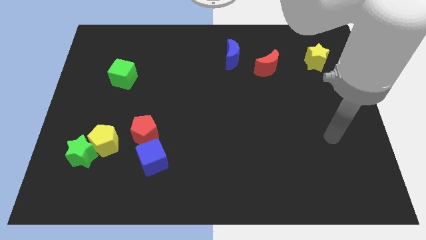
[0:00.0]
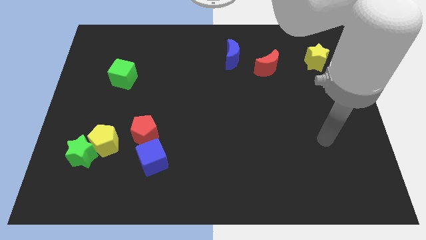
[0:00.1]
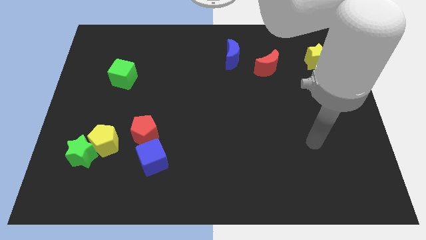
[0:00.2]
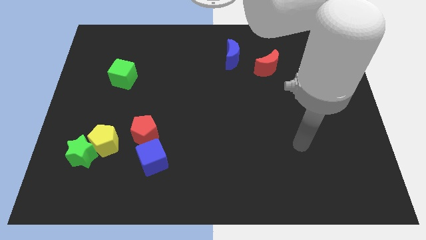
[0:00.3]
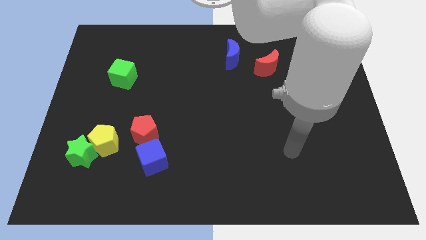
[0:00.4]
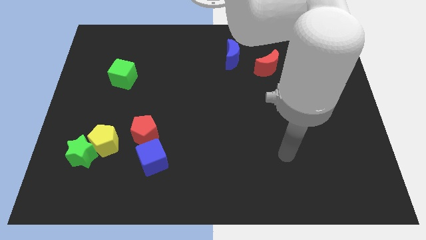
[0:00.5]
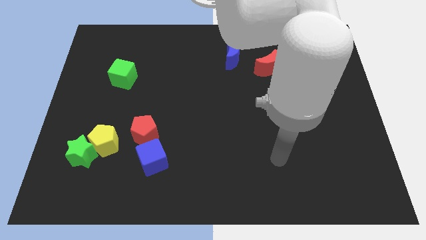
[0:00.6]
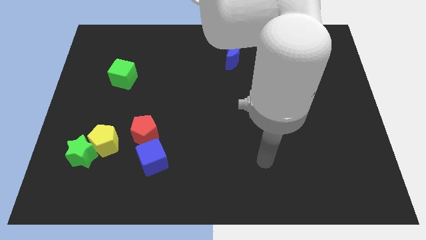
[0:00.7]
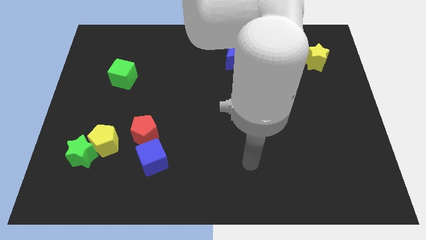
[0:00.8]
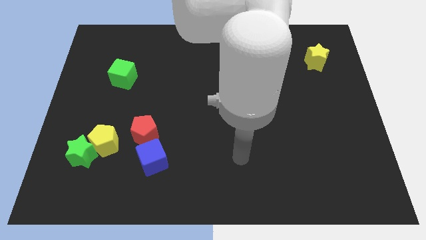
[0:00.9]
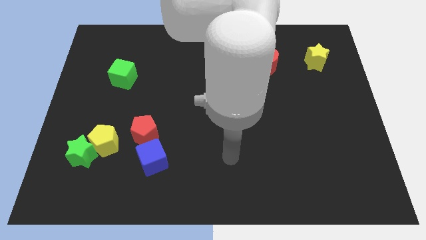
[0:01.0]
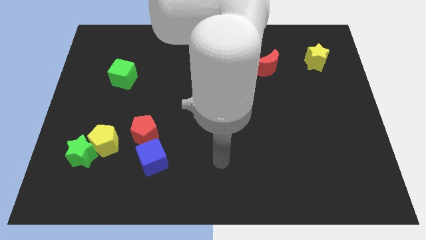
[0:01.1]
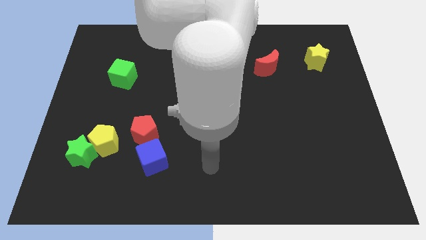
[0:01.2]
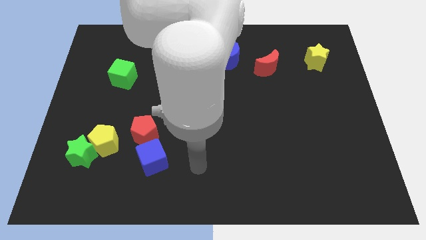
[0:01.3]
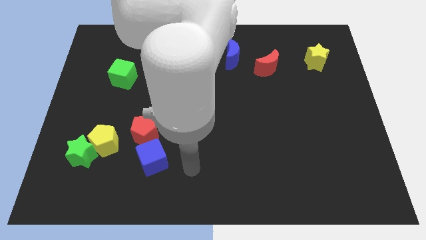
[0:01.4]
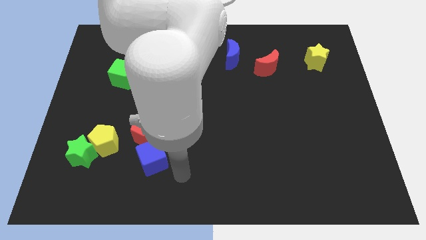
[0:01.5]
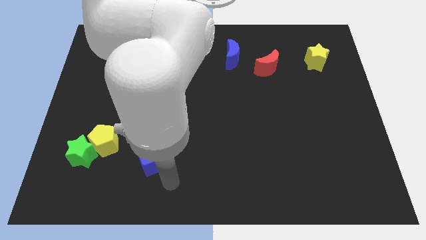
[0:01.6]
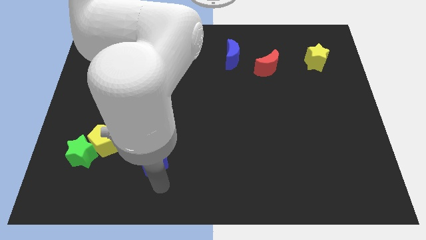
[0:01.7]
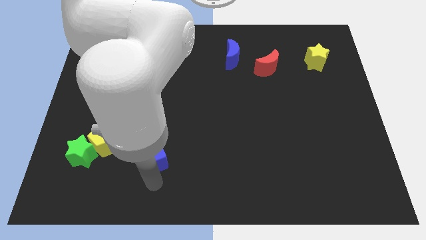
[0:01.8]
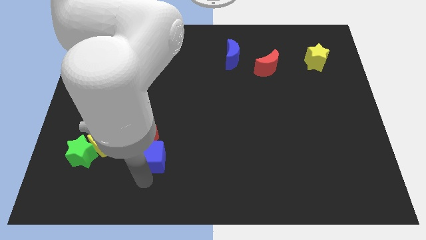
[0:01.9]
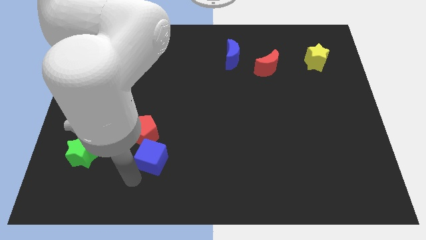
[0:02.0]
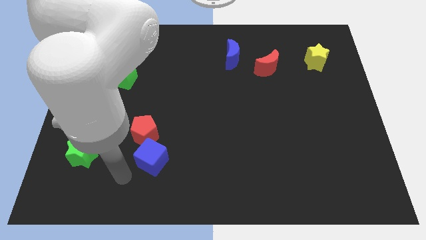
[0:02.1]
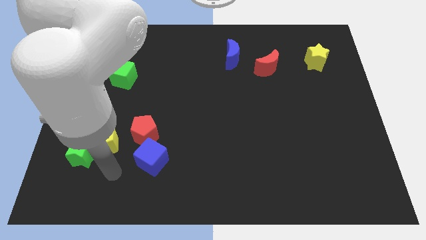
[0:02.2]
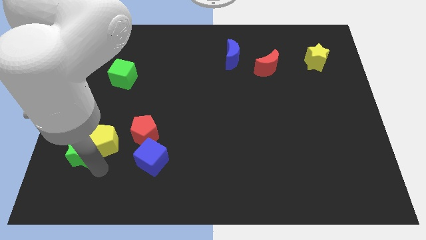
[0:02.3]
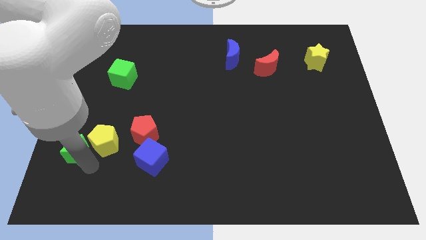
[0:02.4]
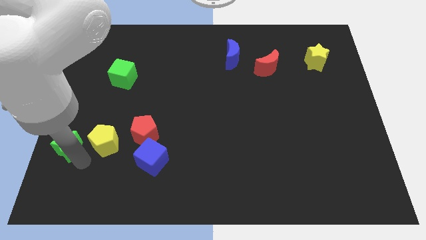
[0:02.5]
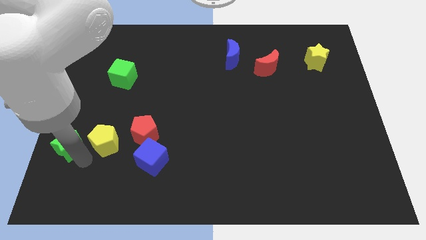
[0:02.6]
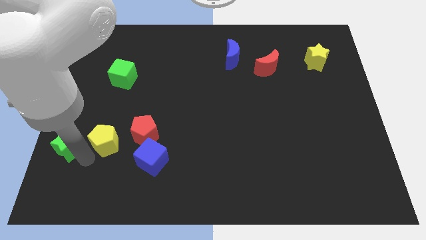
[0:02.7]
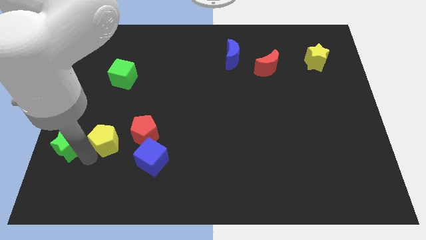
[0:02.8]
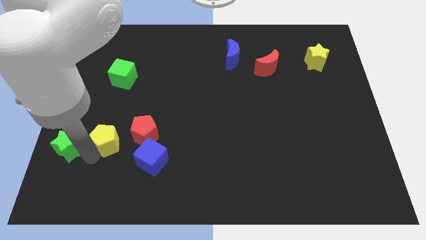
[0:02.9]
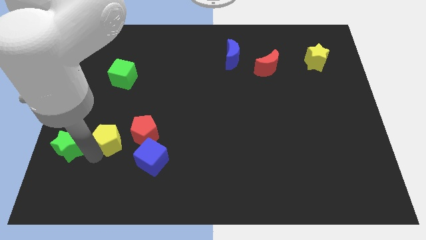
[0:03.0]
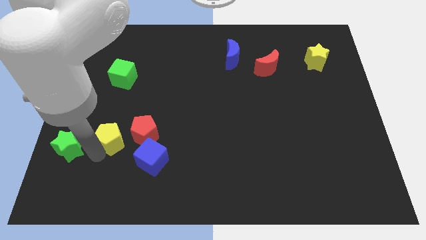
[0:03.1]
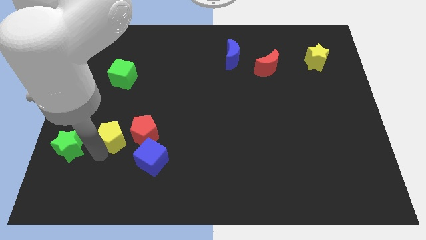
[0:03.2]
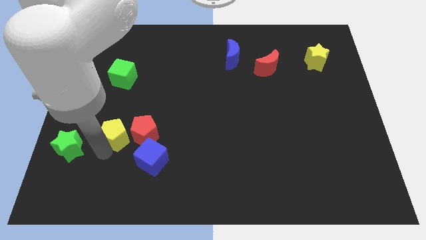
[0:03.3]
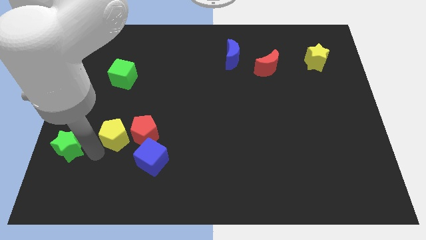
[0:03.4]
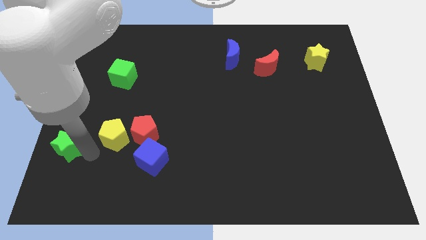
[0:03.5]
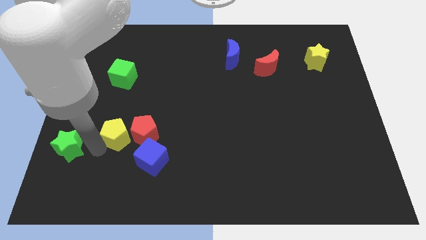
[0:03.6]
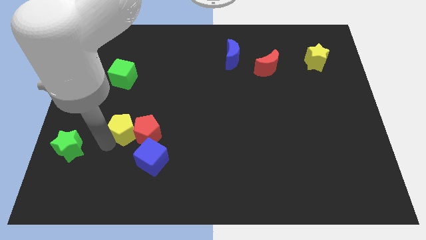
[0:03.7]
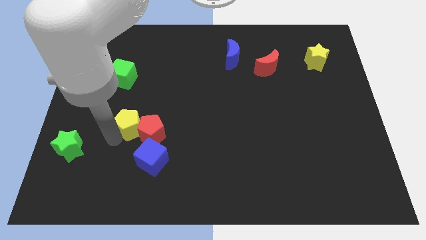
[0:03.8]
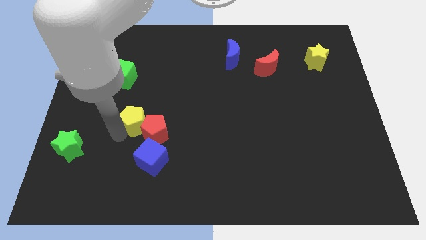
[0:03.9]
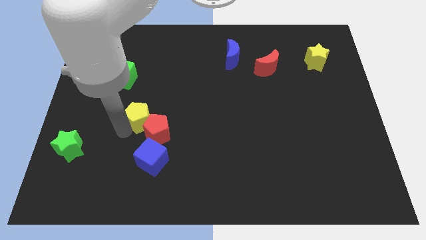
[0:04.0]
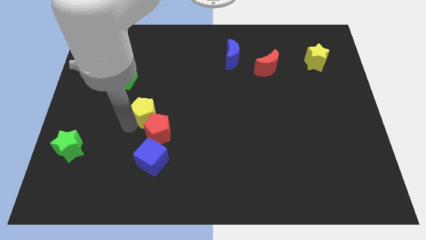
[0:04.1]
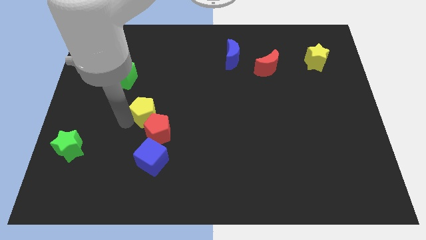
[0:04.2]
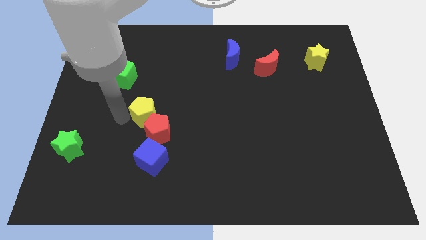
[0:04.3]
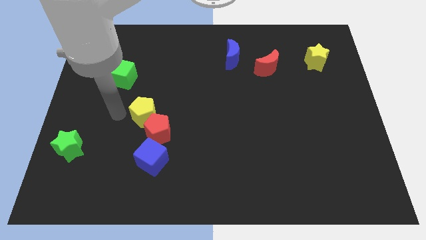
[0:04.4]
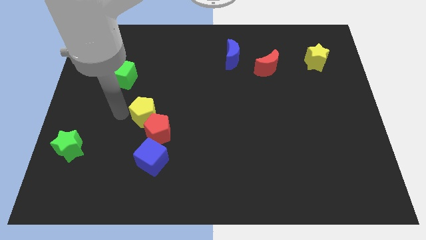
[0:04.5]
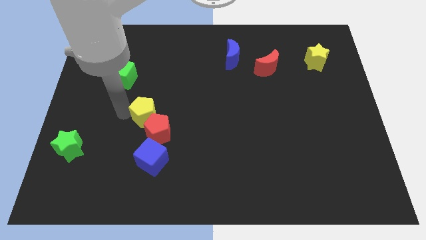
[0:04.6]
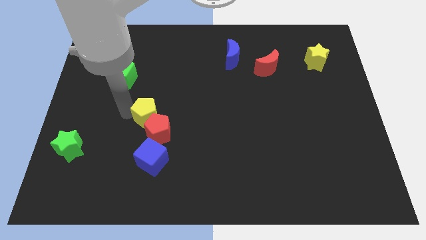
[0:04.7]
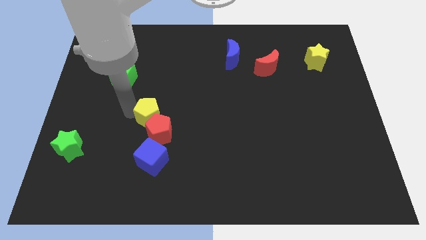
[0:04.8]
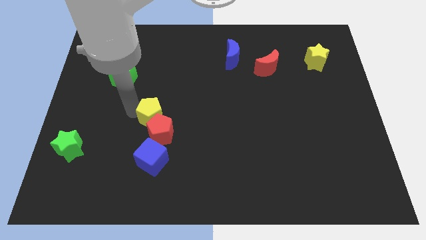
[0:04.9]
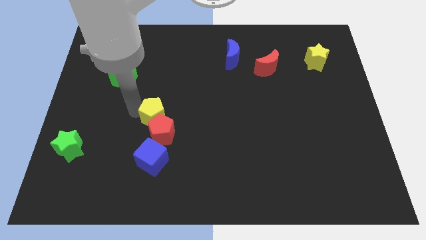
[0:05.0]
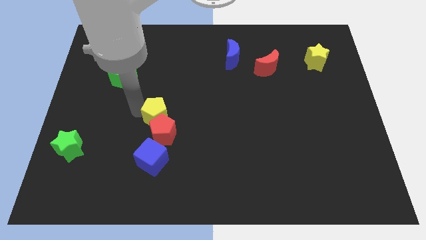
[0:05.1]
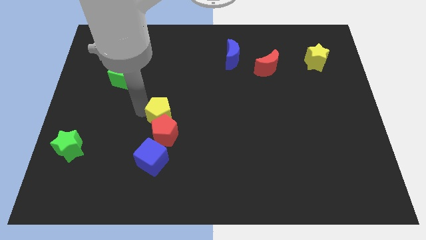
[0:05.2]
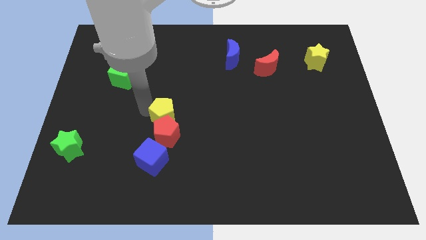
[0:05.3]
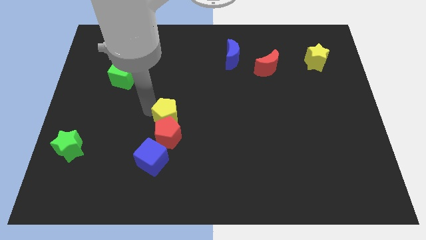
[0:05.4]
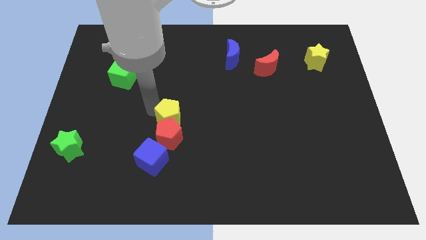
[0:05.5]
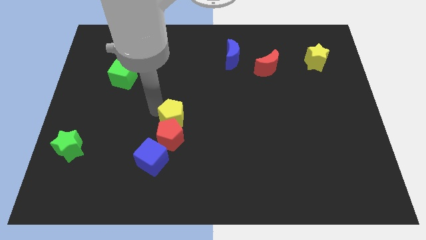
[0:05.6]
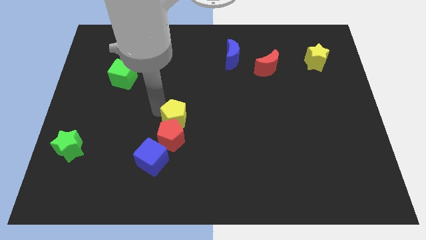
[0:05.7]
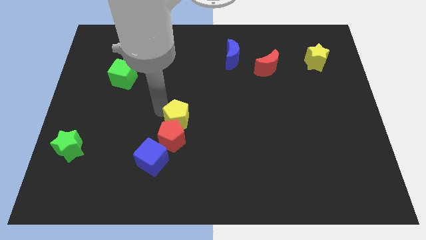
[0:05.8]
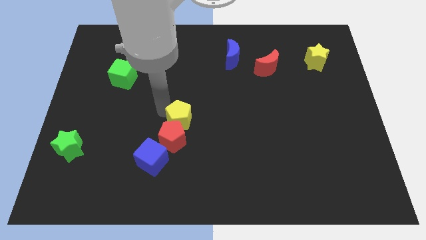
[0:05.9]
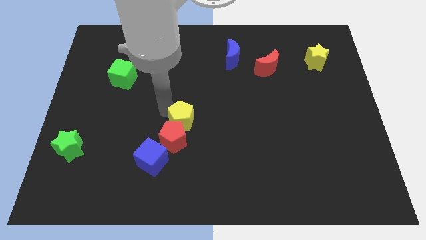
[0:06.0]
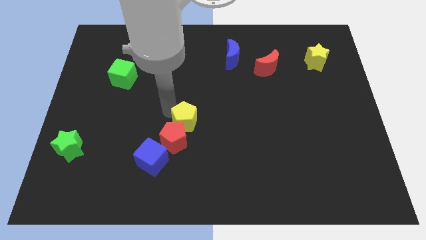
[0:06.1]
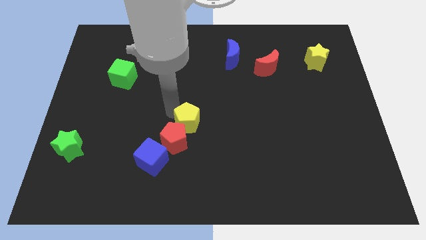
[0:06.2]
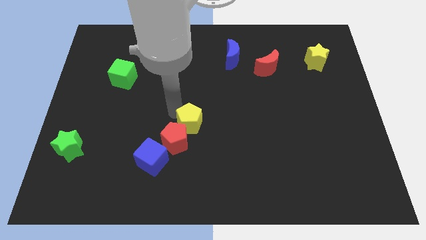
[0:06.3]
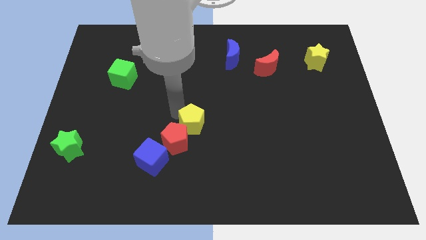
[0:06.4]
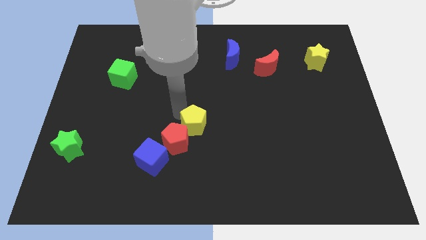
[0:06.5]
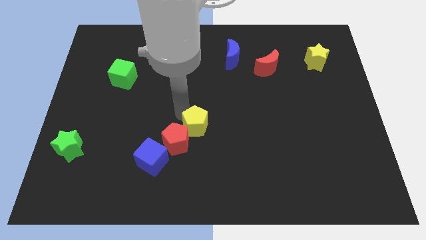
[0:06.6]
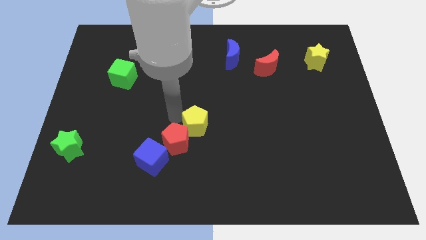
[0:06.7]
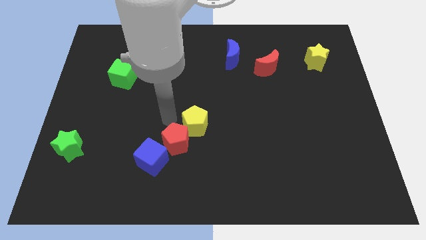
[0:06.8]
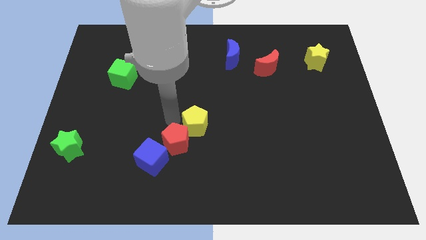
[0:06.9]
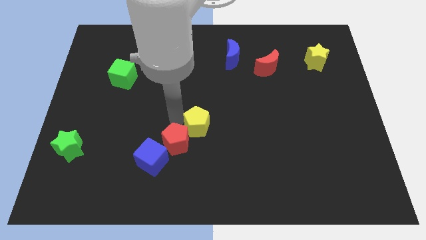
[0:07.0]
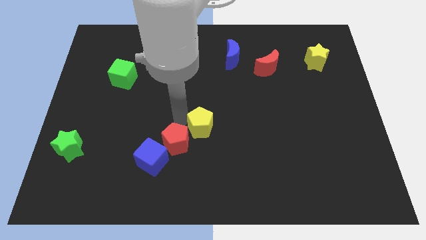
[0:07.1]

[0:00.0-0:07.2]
slide the yellow pentagon to the right

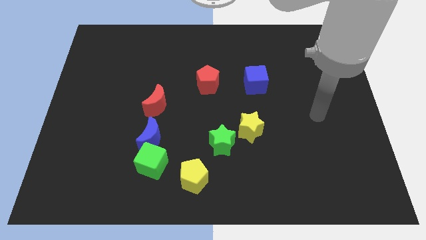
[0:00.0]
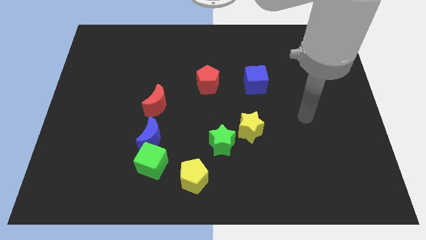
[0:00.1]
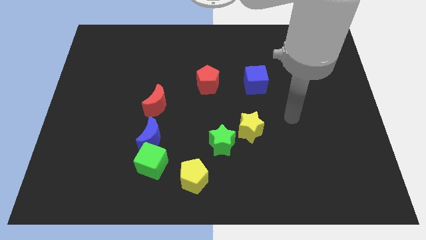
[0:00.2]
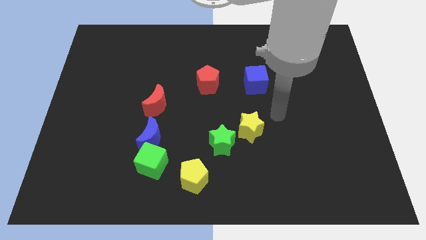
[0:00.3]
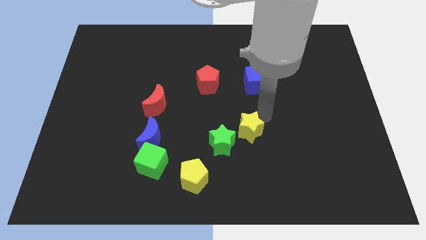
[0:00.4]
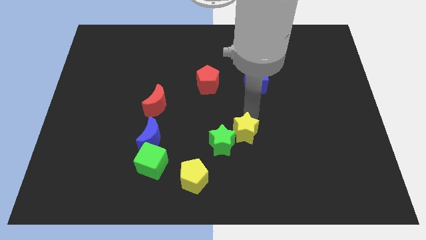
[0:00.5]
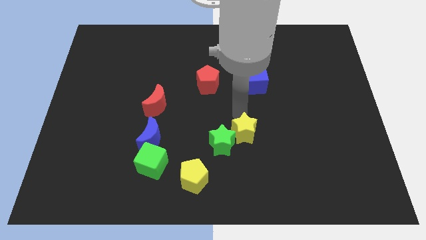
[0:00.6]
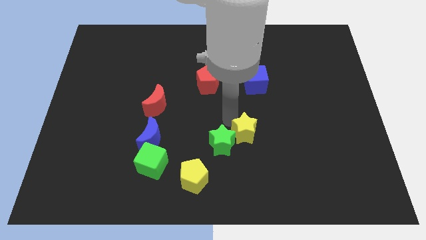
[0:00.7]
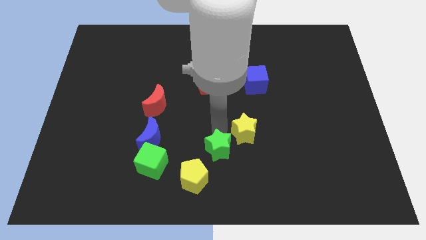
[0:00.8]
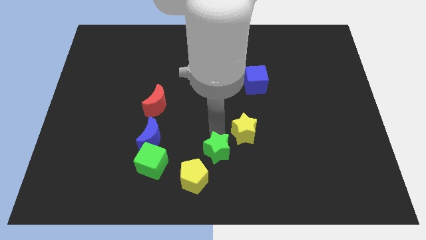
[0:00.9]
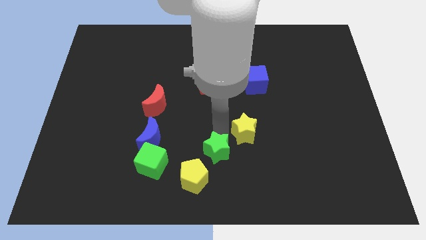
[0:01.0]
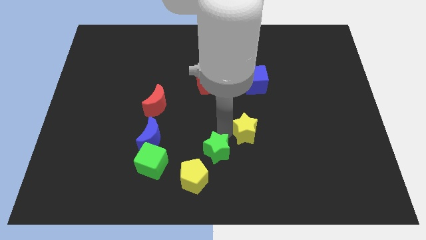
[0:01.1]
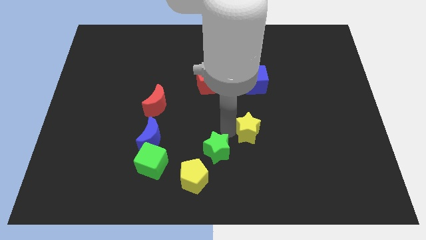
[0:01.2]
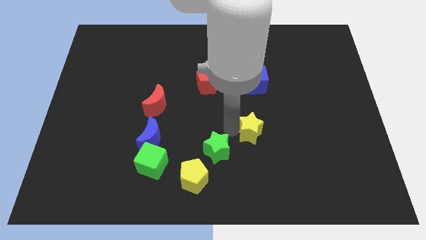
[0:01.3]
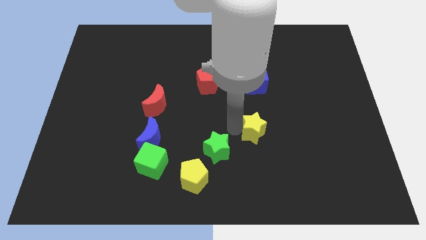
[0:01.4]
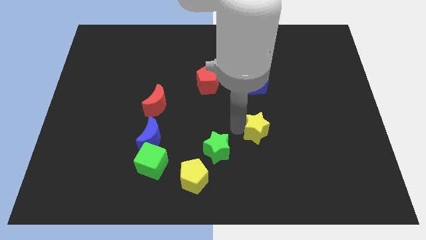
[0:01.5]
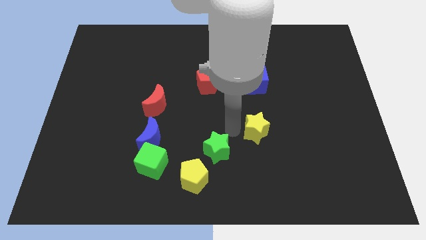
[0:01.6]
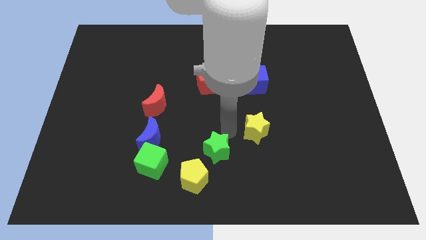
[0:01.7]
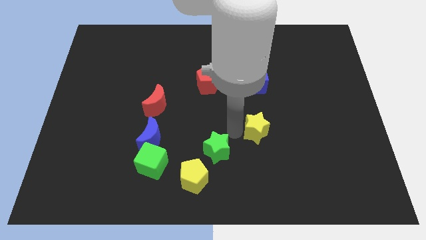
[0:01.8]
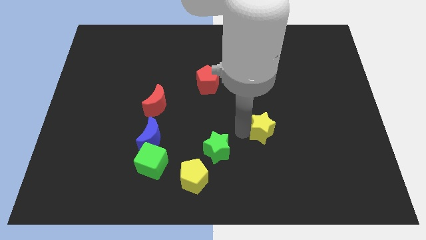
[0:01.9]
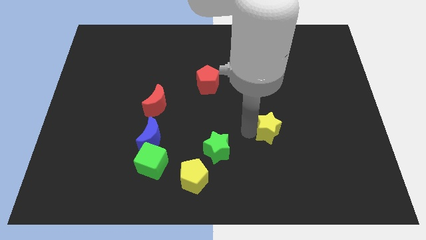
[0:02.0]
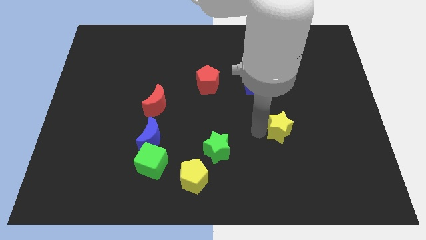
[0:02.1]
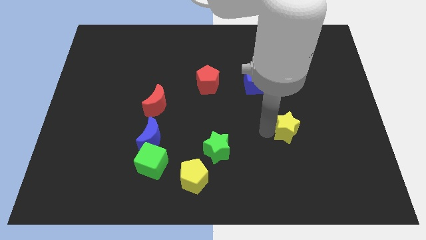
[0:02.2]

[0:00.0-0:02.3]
move the yellow star a little bit to the right
